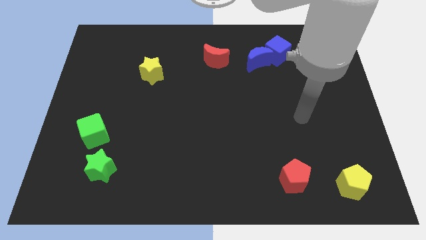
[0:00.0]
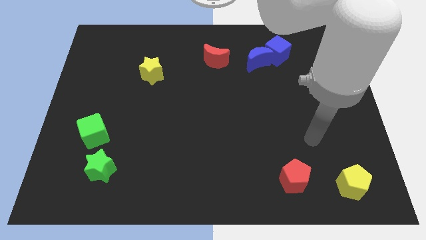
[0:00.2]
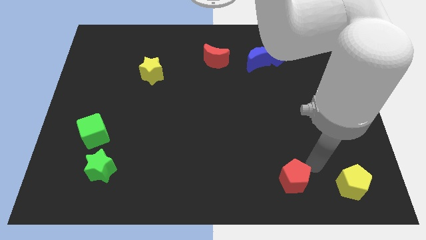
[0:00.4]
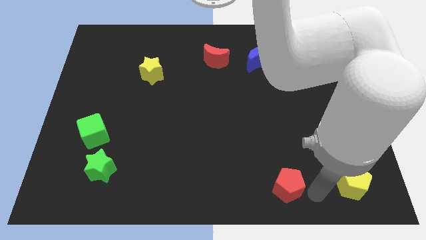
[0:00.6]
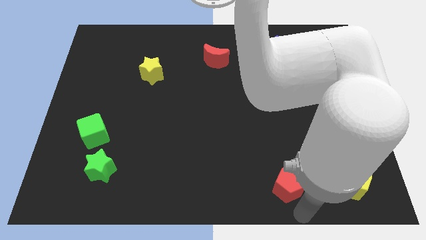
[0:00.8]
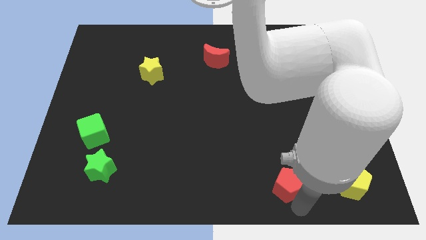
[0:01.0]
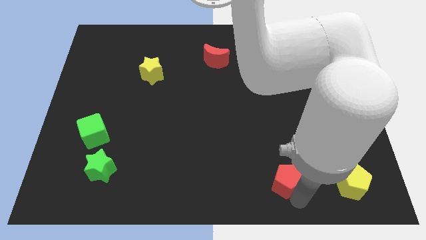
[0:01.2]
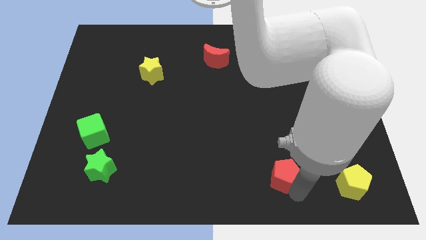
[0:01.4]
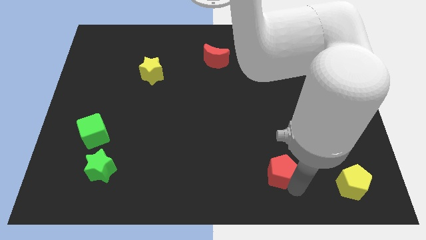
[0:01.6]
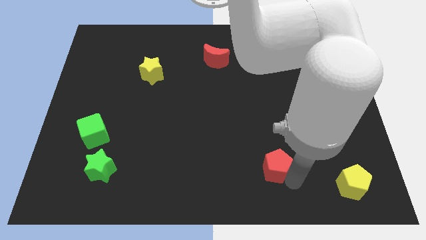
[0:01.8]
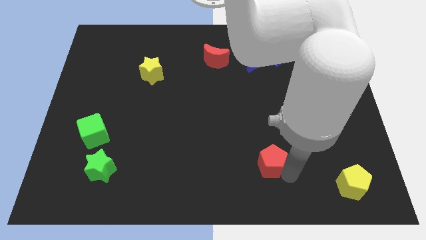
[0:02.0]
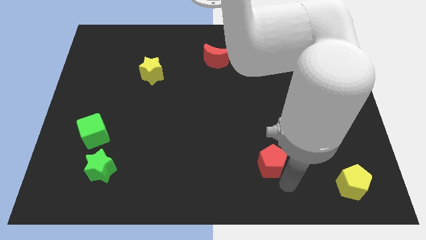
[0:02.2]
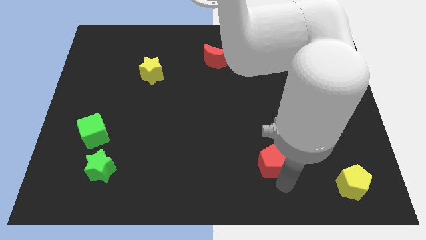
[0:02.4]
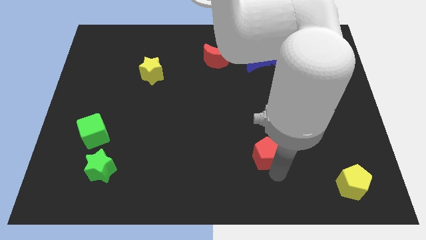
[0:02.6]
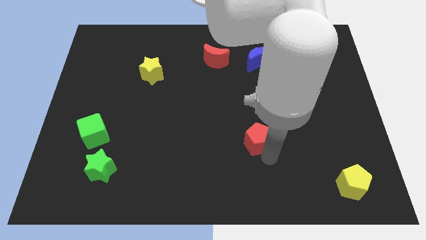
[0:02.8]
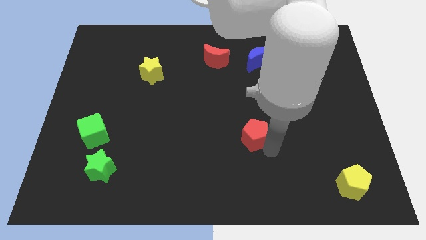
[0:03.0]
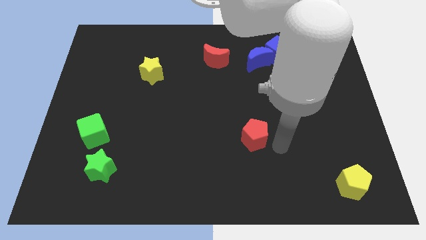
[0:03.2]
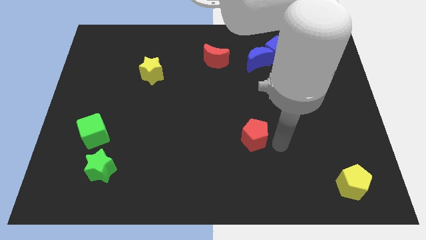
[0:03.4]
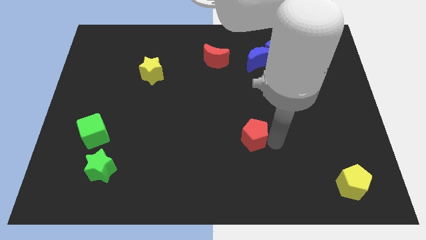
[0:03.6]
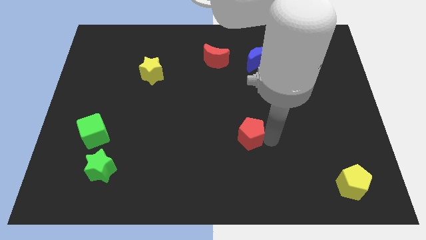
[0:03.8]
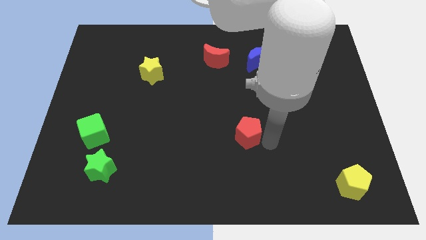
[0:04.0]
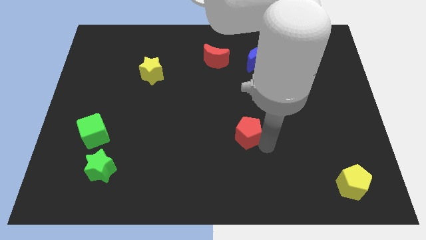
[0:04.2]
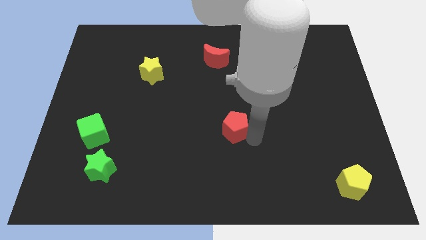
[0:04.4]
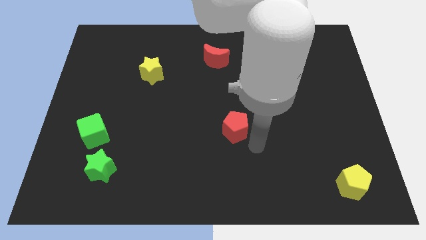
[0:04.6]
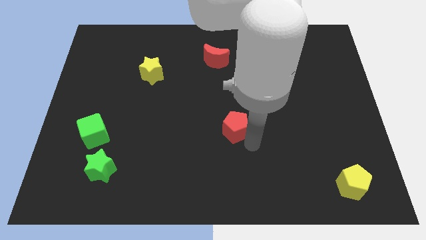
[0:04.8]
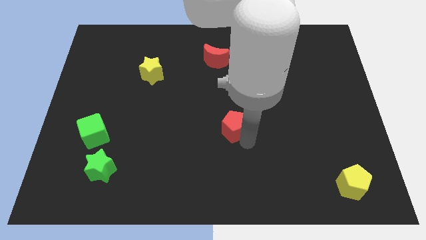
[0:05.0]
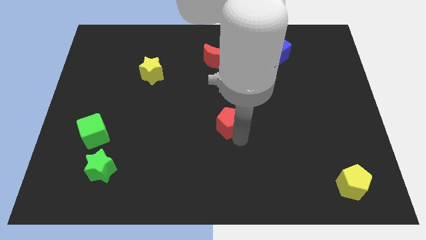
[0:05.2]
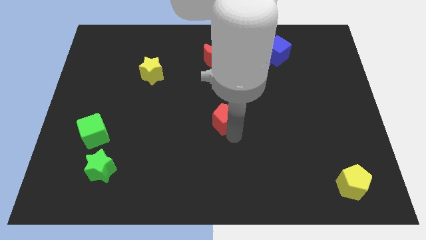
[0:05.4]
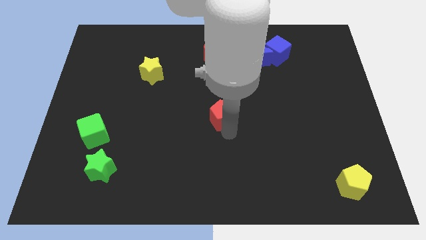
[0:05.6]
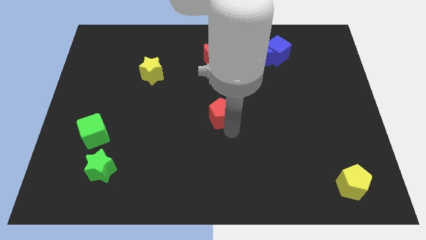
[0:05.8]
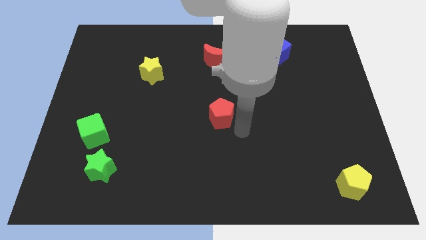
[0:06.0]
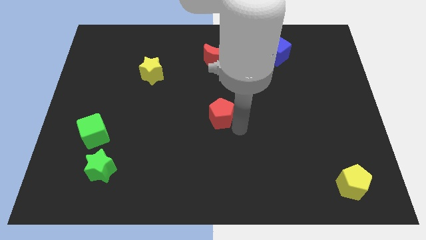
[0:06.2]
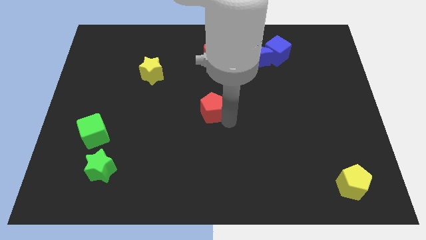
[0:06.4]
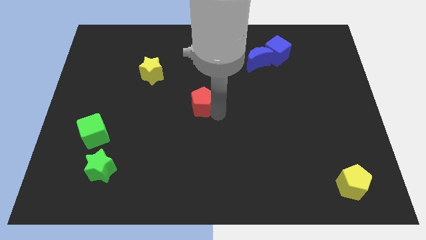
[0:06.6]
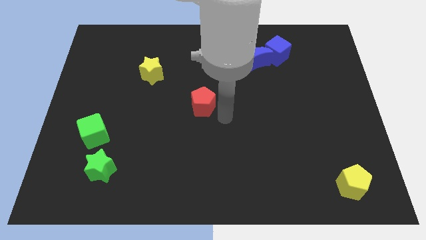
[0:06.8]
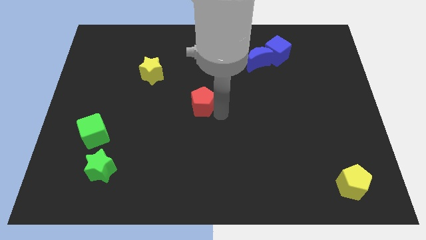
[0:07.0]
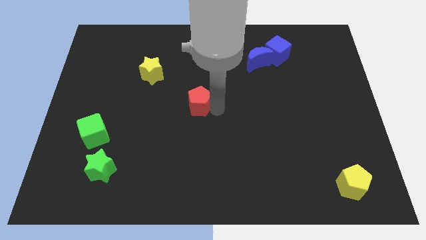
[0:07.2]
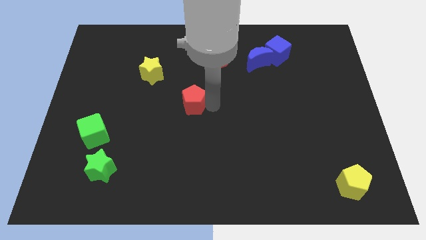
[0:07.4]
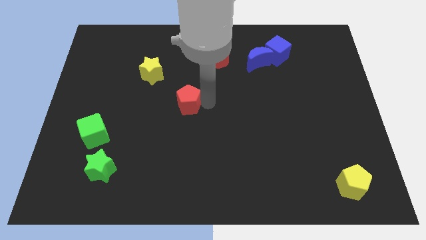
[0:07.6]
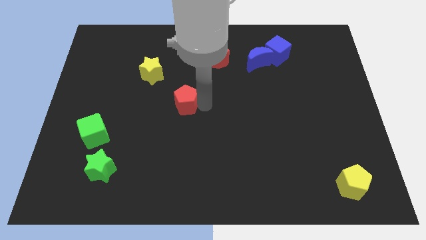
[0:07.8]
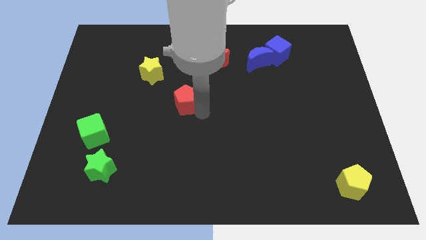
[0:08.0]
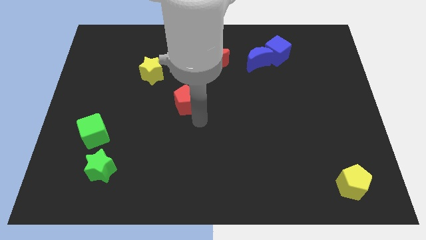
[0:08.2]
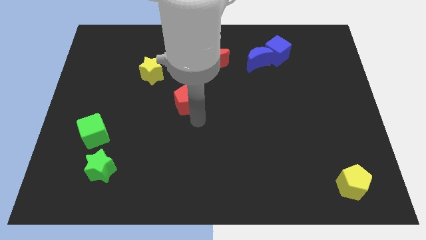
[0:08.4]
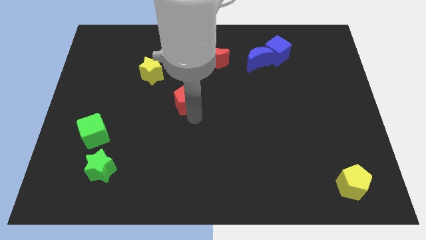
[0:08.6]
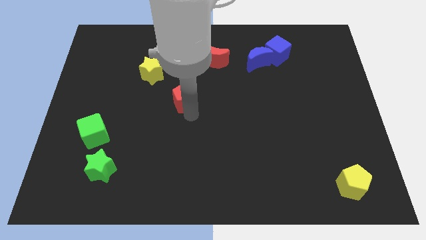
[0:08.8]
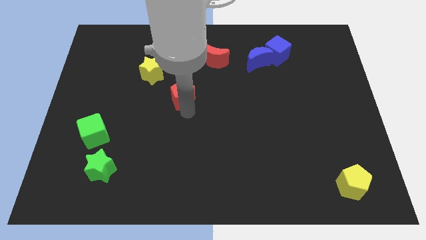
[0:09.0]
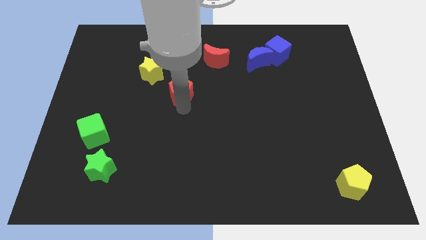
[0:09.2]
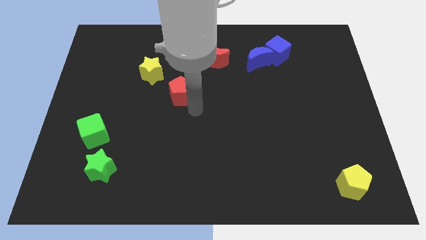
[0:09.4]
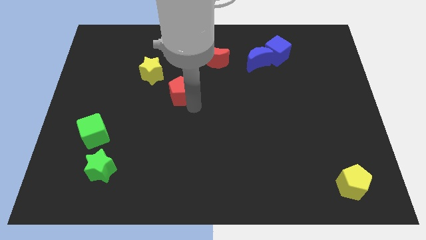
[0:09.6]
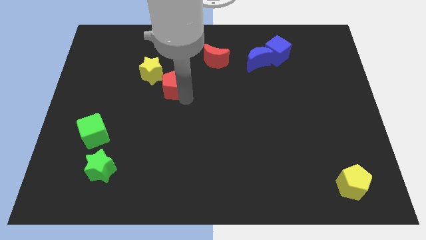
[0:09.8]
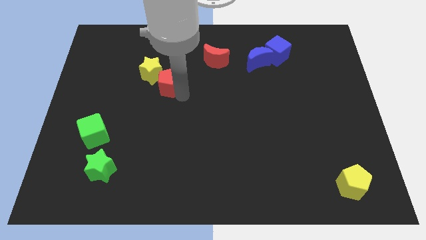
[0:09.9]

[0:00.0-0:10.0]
put the red pentagon to the yellow star

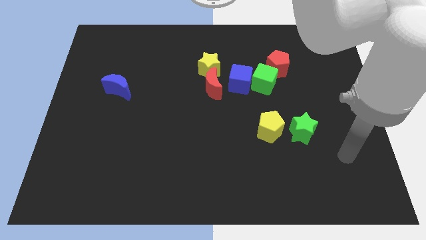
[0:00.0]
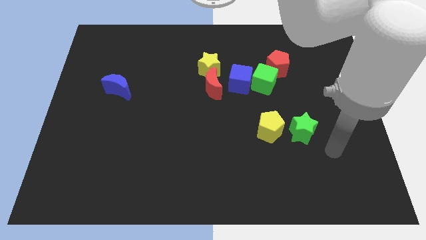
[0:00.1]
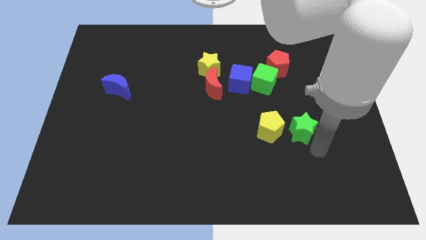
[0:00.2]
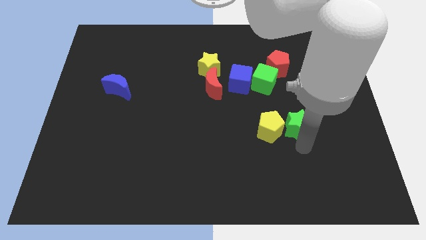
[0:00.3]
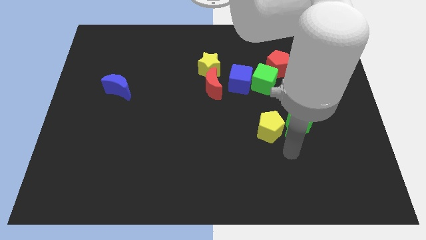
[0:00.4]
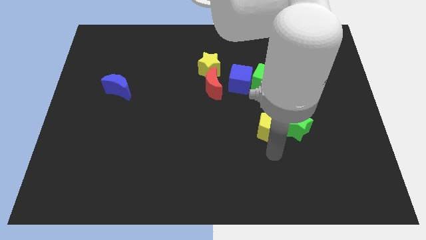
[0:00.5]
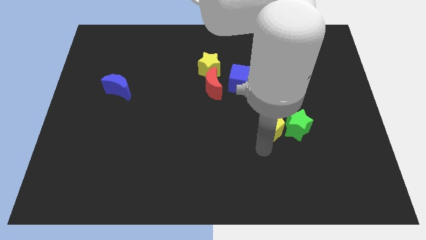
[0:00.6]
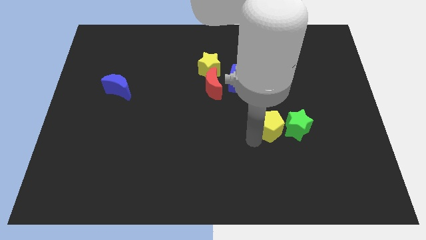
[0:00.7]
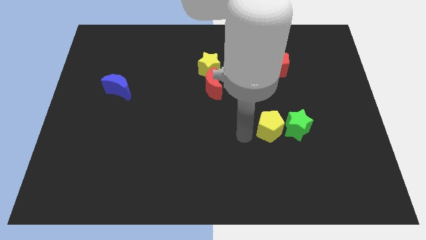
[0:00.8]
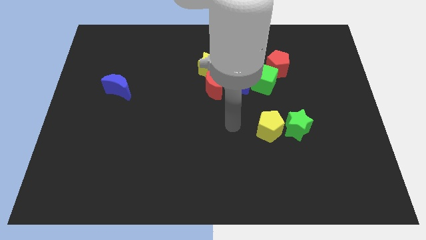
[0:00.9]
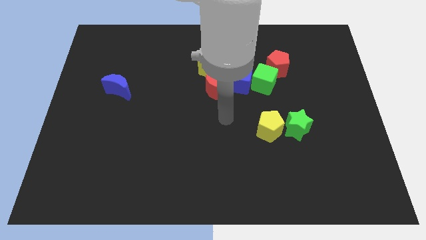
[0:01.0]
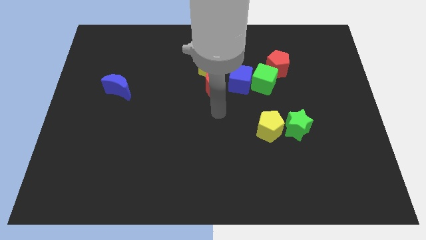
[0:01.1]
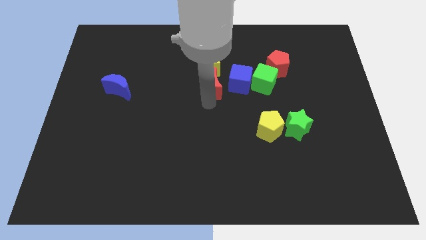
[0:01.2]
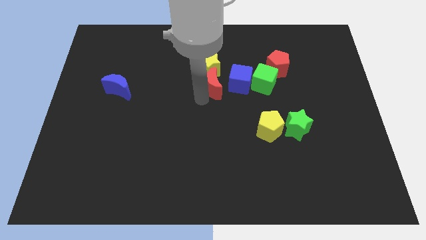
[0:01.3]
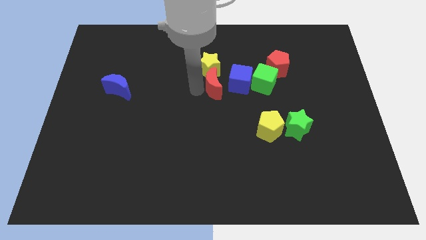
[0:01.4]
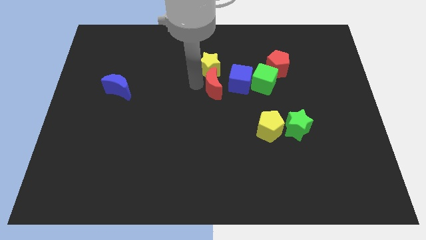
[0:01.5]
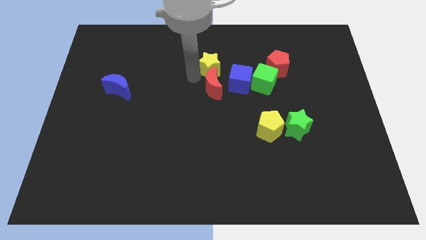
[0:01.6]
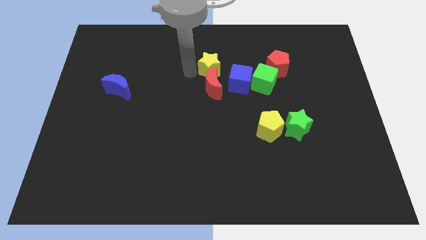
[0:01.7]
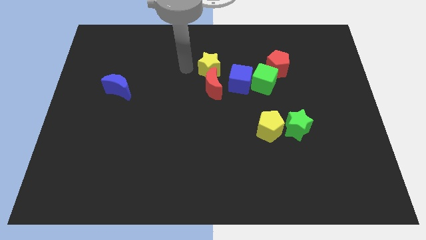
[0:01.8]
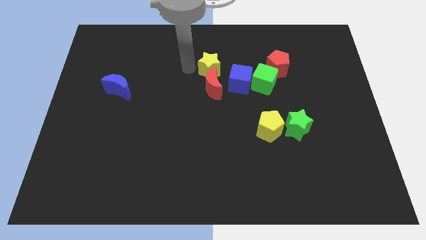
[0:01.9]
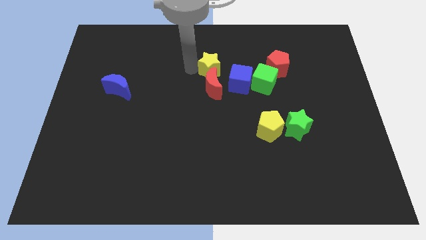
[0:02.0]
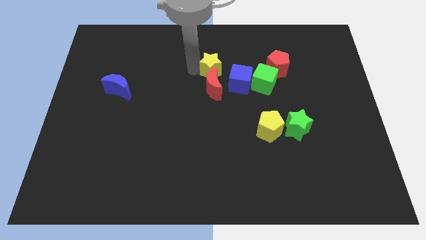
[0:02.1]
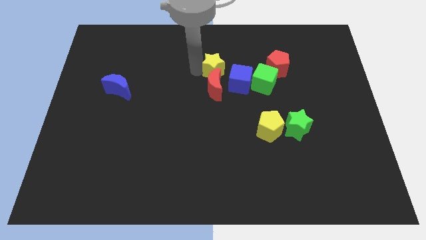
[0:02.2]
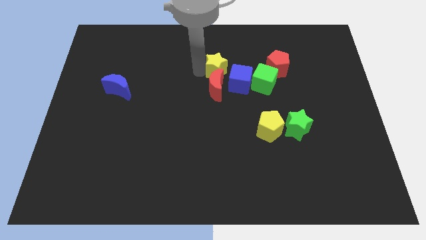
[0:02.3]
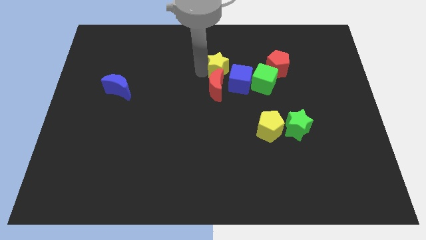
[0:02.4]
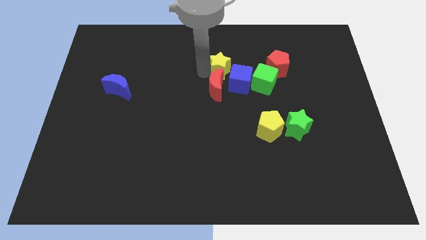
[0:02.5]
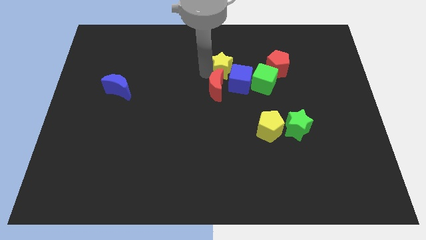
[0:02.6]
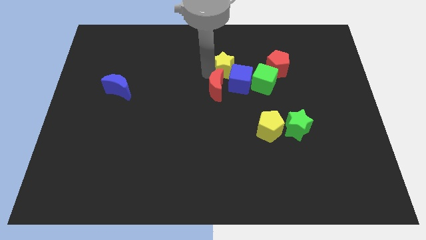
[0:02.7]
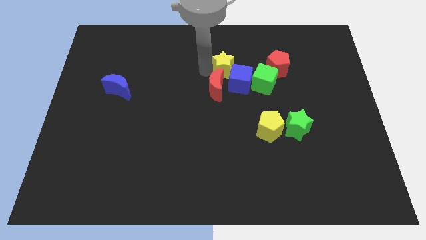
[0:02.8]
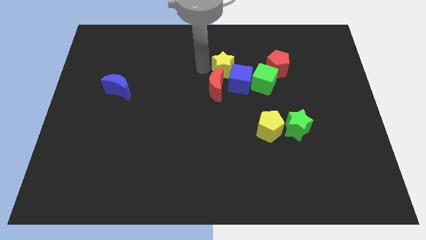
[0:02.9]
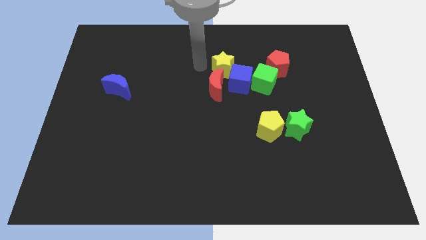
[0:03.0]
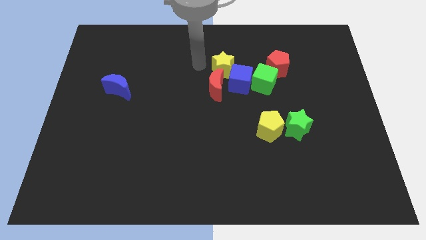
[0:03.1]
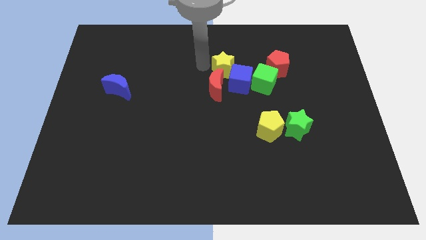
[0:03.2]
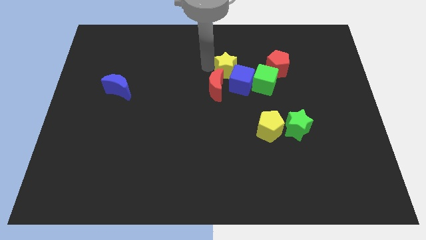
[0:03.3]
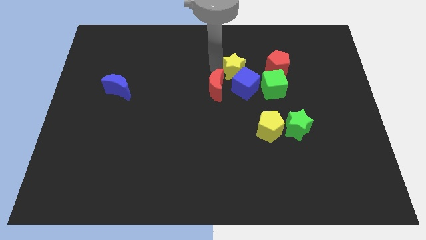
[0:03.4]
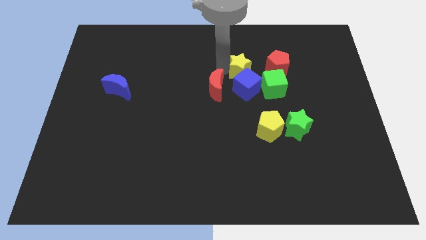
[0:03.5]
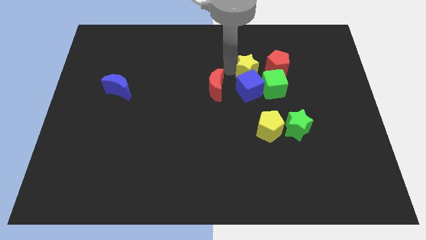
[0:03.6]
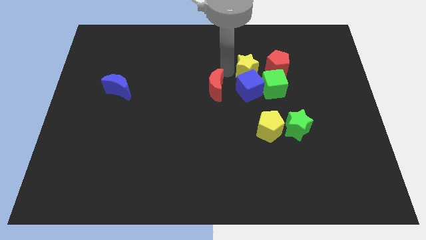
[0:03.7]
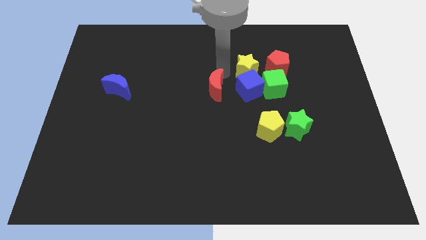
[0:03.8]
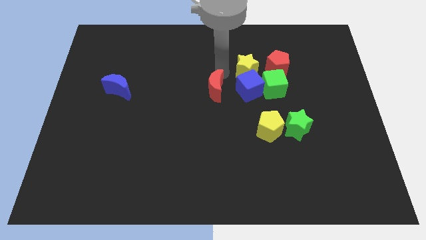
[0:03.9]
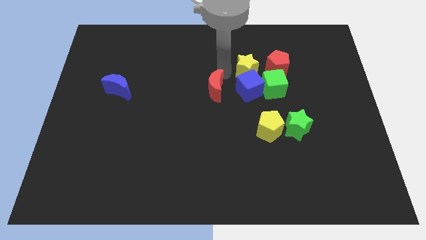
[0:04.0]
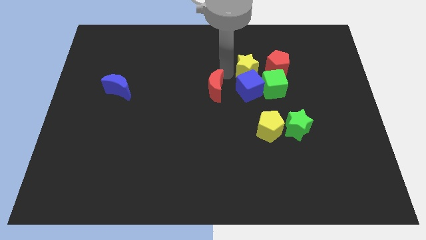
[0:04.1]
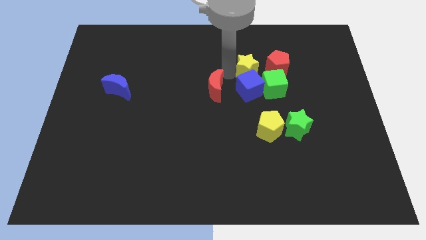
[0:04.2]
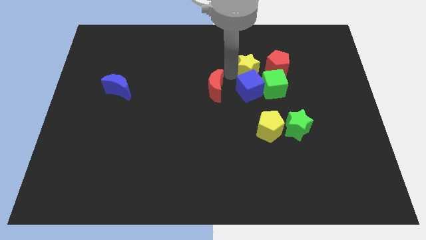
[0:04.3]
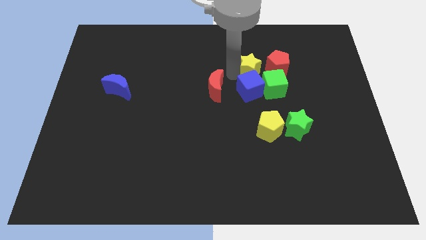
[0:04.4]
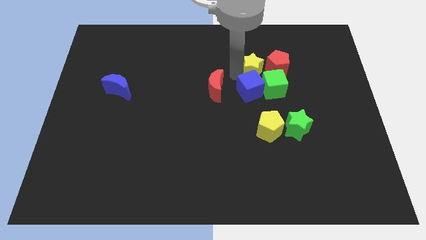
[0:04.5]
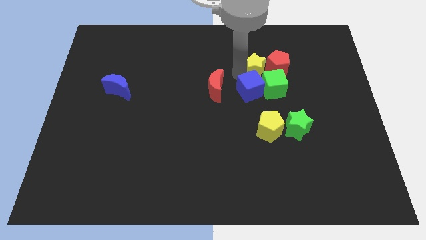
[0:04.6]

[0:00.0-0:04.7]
push the yellow star next to the red pentagon
